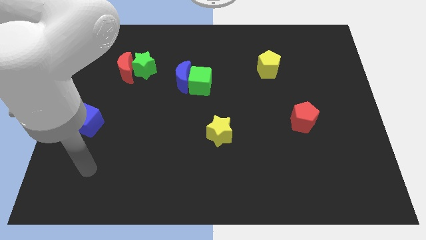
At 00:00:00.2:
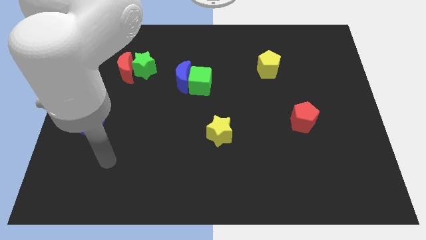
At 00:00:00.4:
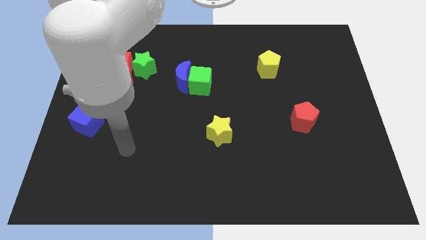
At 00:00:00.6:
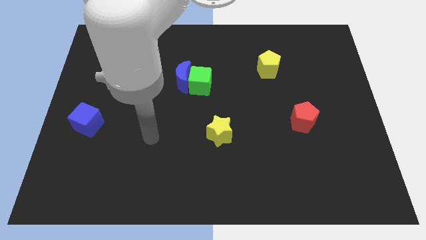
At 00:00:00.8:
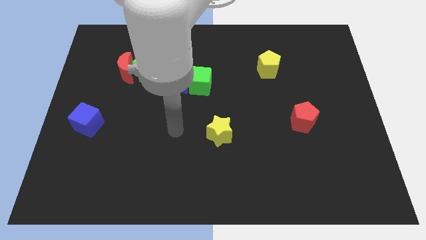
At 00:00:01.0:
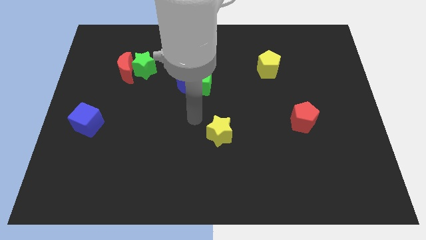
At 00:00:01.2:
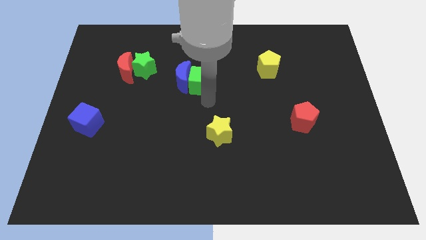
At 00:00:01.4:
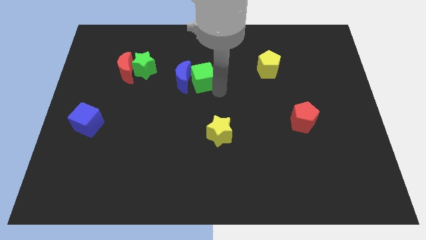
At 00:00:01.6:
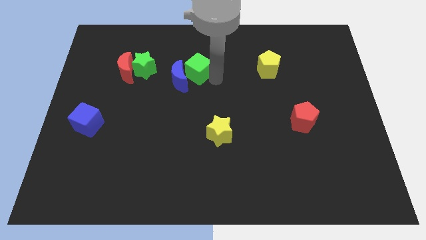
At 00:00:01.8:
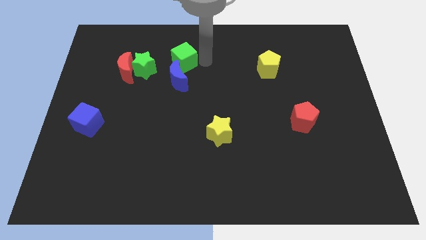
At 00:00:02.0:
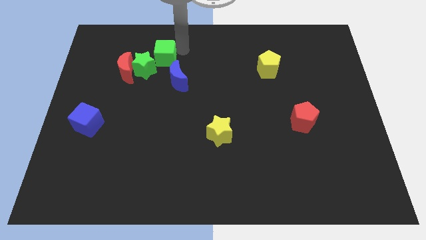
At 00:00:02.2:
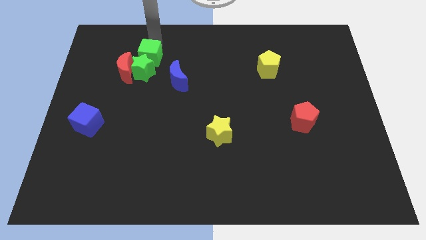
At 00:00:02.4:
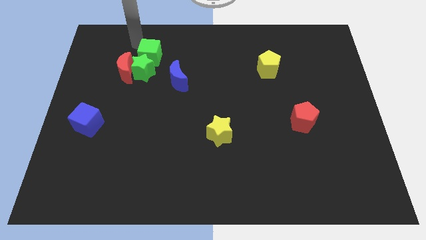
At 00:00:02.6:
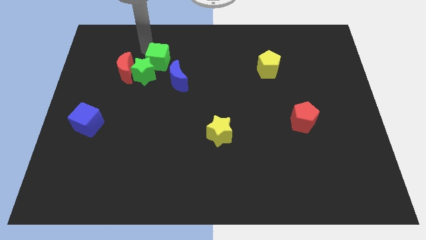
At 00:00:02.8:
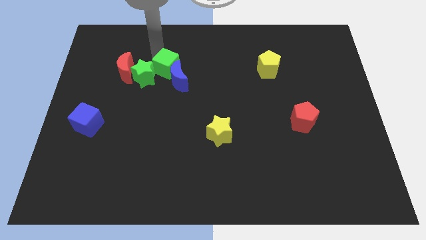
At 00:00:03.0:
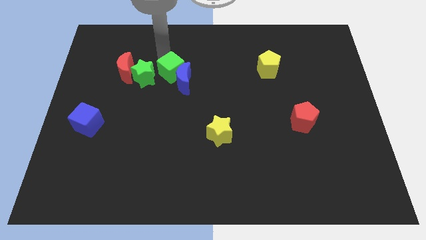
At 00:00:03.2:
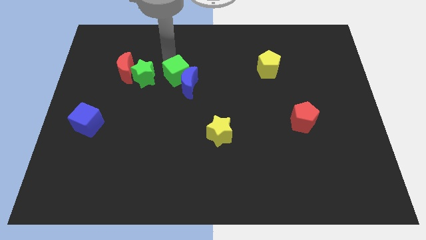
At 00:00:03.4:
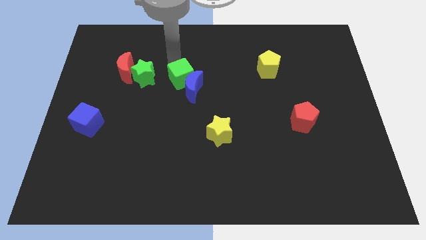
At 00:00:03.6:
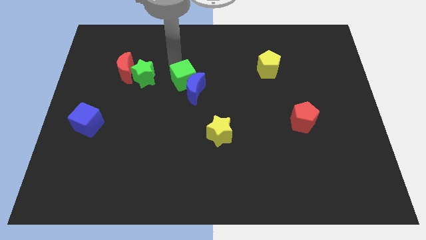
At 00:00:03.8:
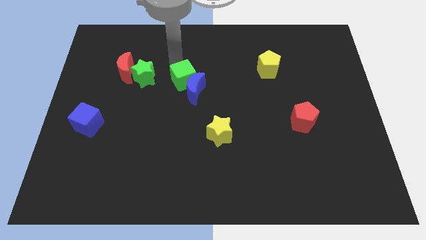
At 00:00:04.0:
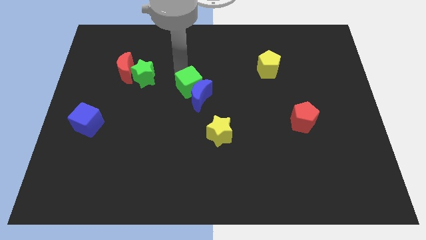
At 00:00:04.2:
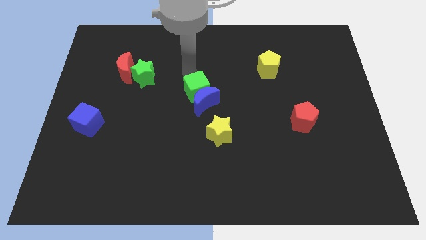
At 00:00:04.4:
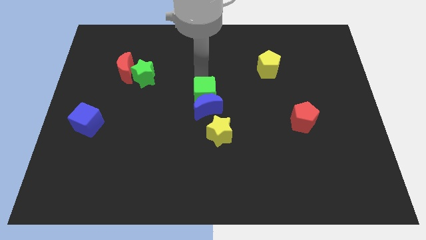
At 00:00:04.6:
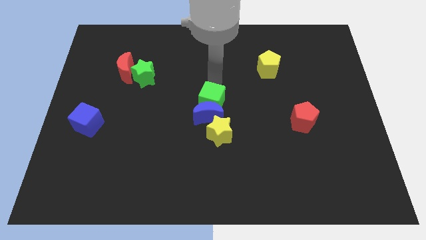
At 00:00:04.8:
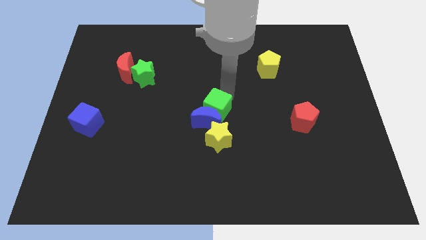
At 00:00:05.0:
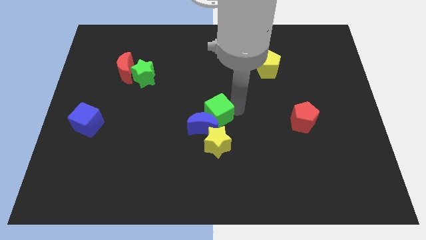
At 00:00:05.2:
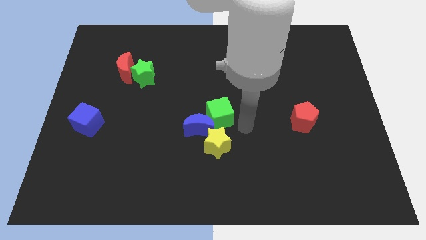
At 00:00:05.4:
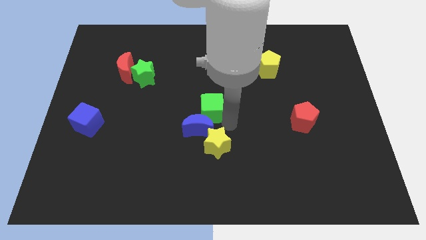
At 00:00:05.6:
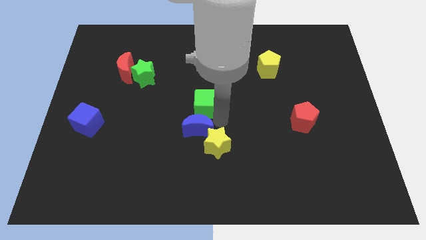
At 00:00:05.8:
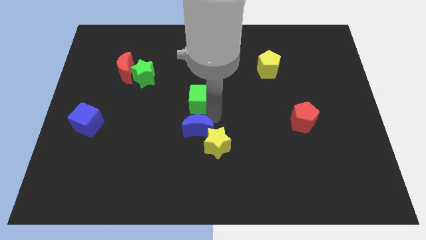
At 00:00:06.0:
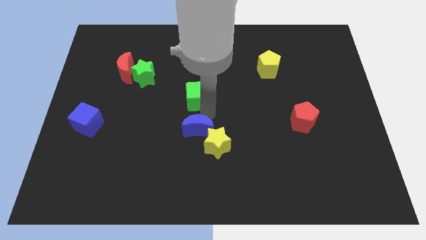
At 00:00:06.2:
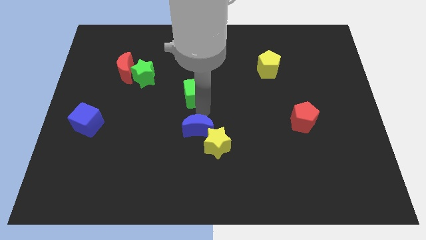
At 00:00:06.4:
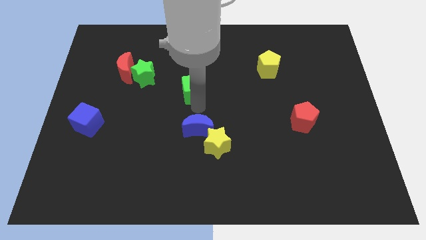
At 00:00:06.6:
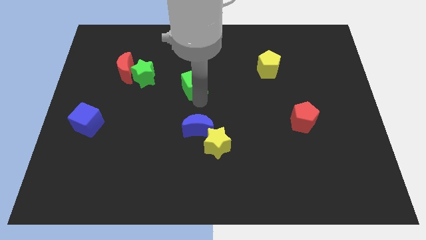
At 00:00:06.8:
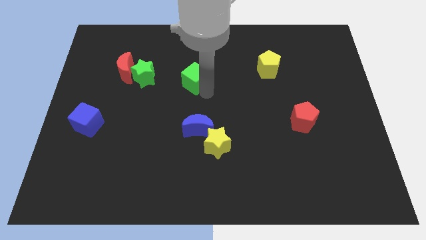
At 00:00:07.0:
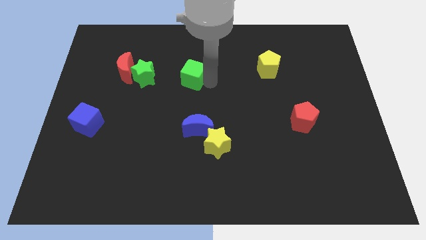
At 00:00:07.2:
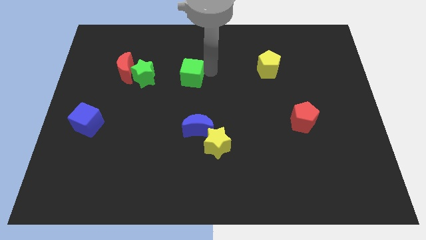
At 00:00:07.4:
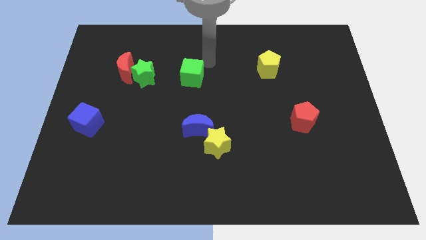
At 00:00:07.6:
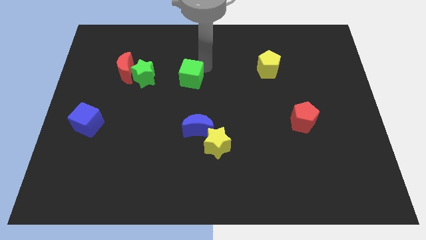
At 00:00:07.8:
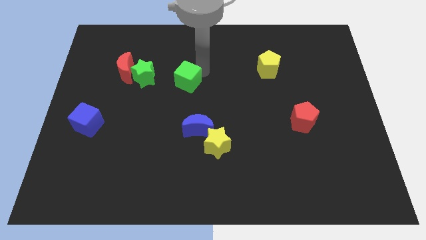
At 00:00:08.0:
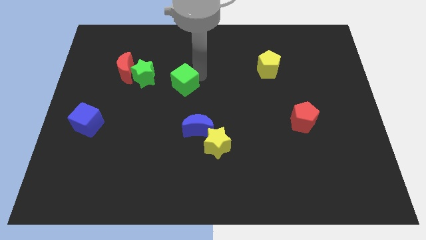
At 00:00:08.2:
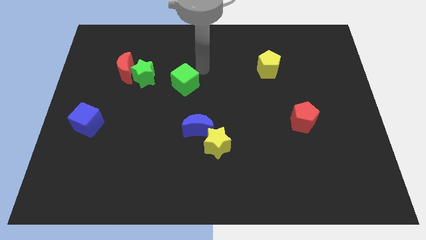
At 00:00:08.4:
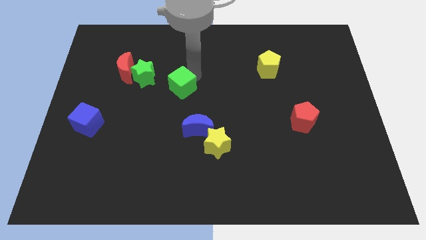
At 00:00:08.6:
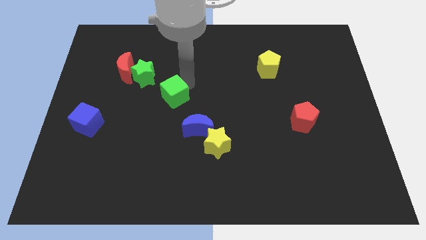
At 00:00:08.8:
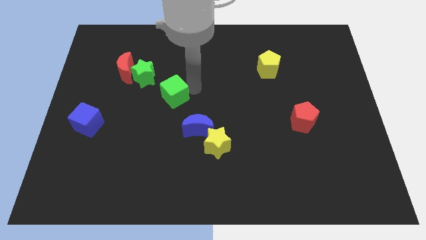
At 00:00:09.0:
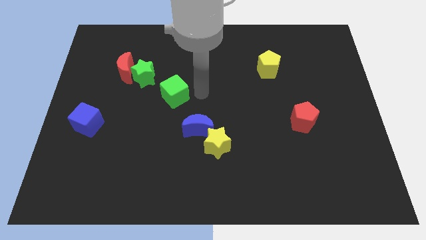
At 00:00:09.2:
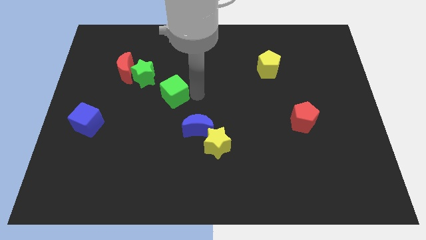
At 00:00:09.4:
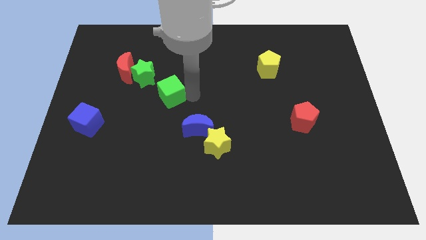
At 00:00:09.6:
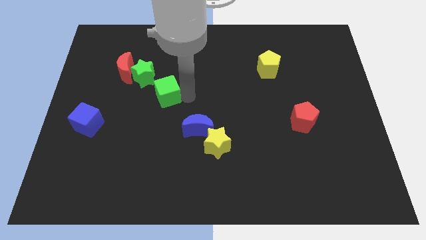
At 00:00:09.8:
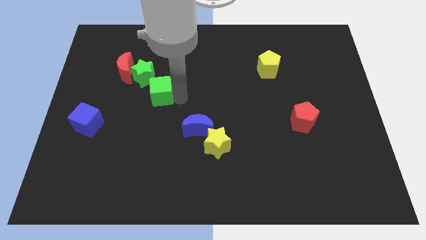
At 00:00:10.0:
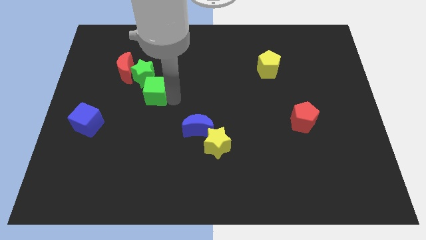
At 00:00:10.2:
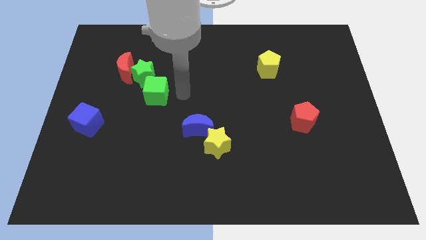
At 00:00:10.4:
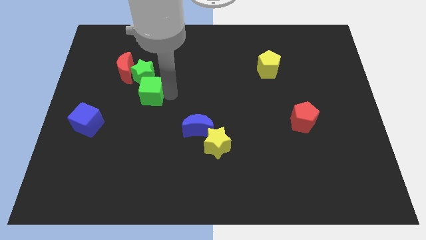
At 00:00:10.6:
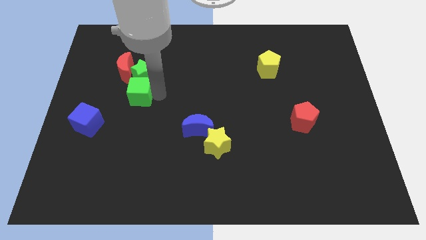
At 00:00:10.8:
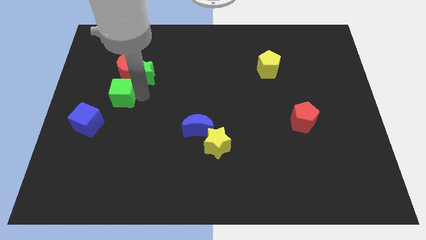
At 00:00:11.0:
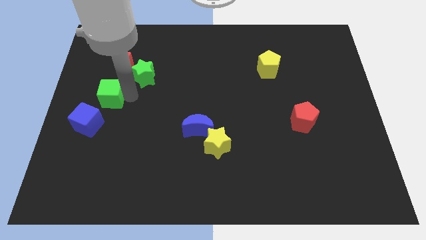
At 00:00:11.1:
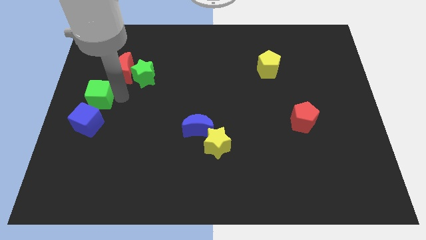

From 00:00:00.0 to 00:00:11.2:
move the green cube to the left side of the board

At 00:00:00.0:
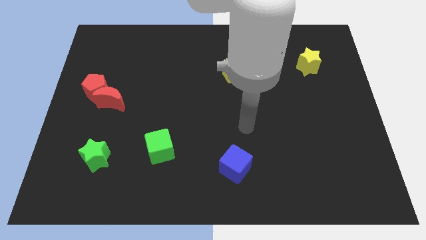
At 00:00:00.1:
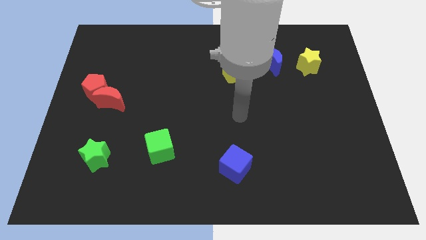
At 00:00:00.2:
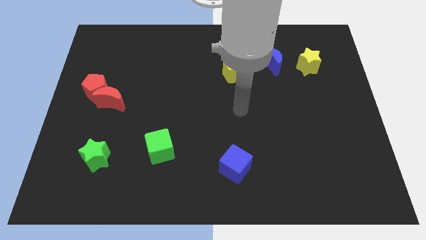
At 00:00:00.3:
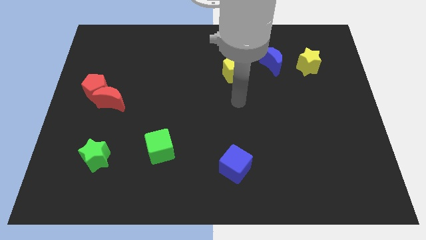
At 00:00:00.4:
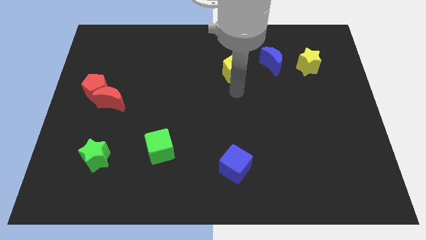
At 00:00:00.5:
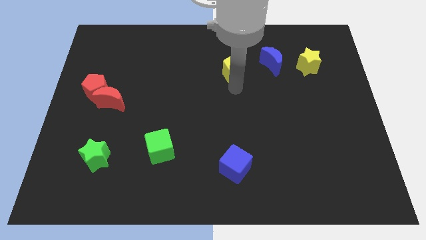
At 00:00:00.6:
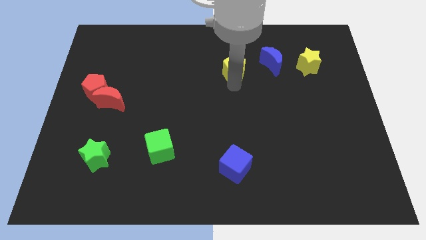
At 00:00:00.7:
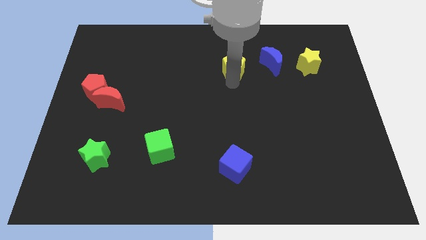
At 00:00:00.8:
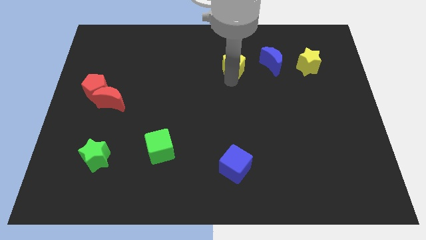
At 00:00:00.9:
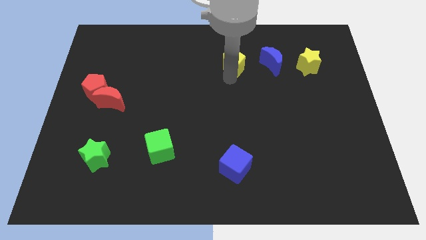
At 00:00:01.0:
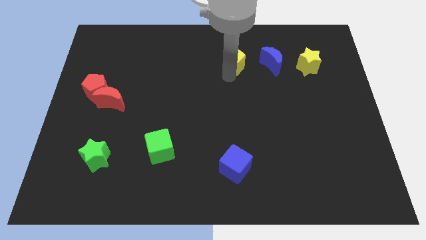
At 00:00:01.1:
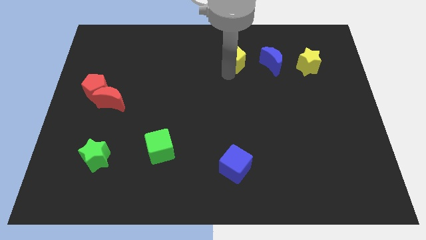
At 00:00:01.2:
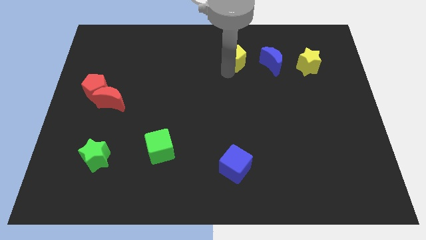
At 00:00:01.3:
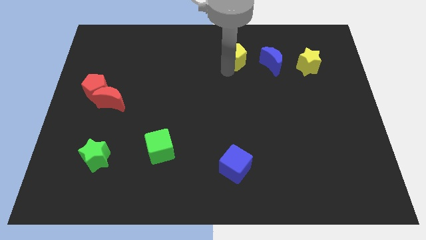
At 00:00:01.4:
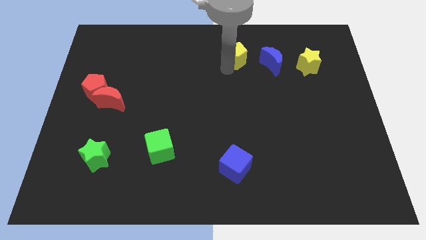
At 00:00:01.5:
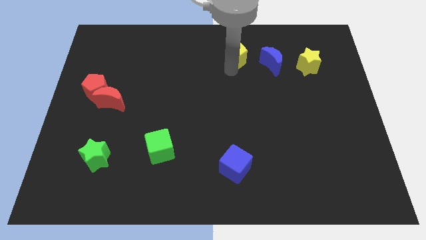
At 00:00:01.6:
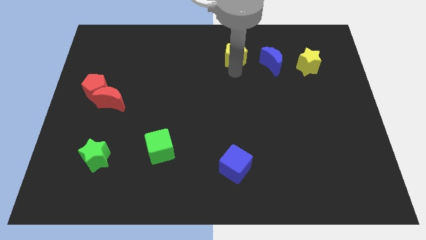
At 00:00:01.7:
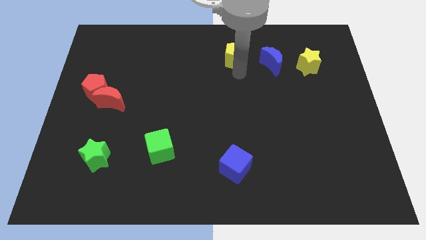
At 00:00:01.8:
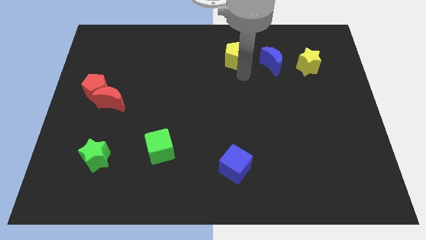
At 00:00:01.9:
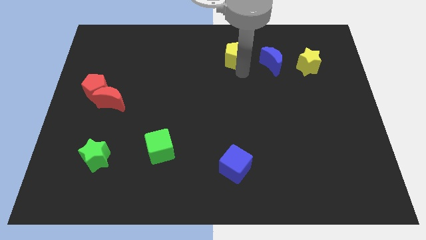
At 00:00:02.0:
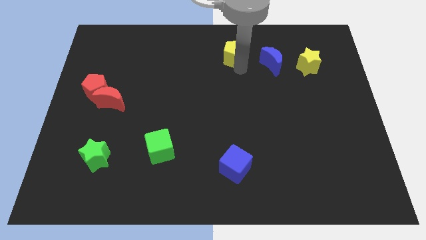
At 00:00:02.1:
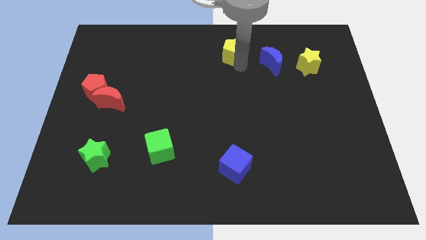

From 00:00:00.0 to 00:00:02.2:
slide the yellow pentagon to the top side

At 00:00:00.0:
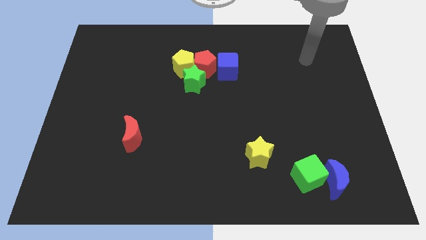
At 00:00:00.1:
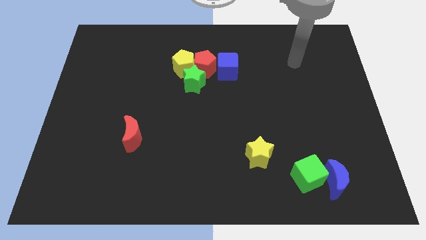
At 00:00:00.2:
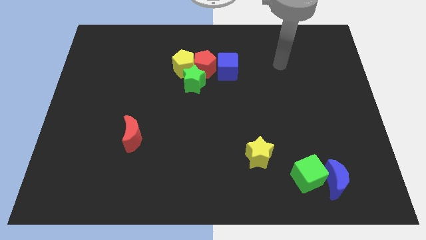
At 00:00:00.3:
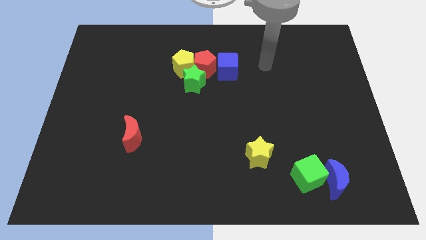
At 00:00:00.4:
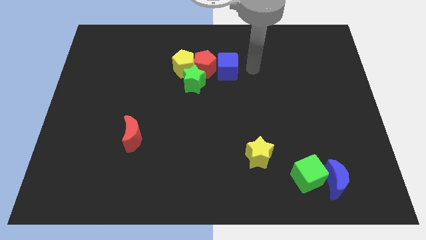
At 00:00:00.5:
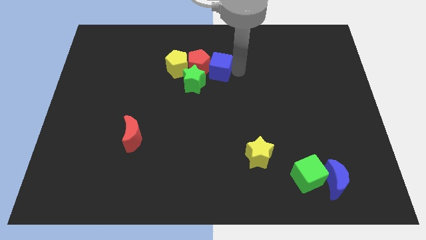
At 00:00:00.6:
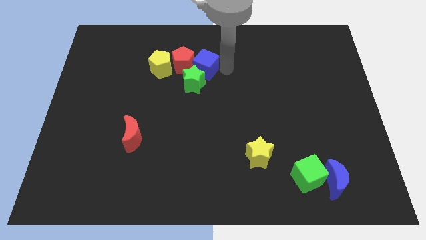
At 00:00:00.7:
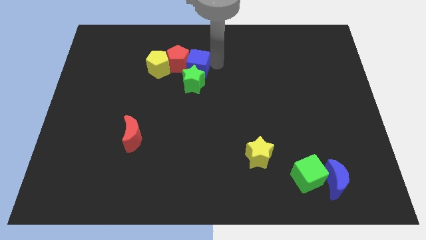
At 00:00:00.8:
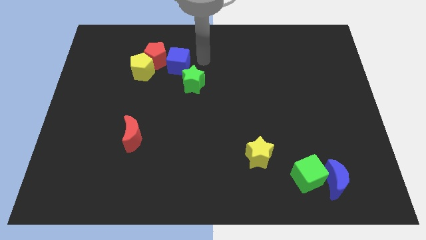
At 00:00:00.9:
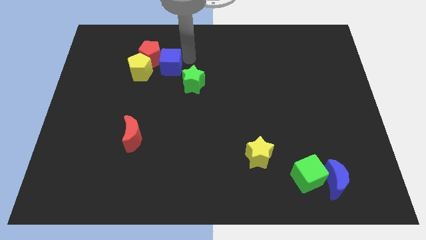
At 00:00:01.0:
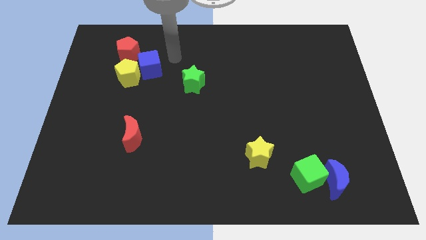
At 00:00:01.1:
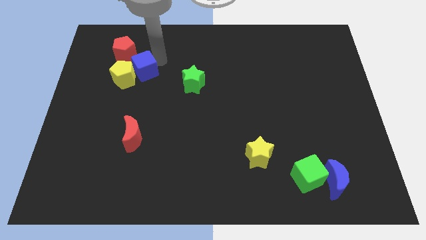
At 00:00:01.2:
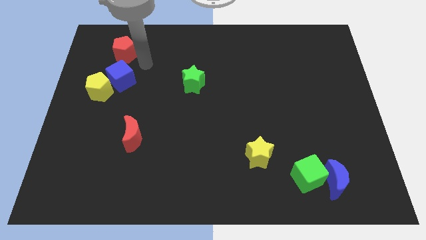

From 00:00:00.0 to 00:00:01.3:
move the yellow pentagon to the left side of the board
